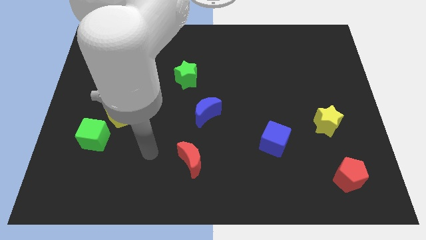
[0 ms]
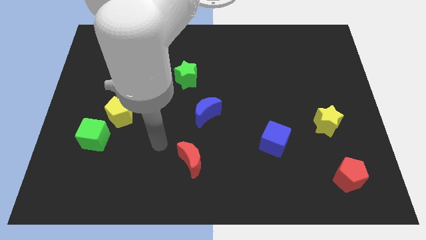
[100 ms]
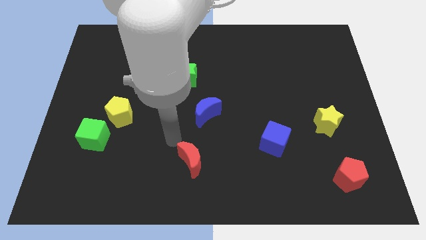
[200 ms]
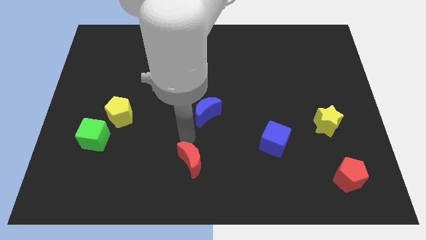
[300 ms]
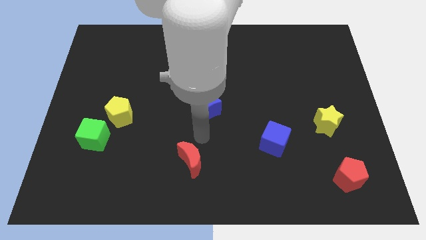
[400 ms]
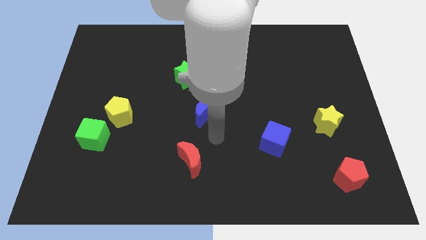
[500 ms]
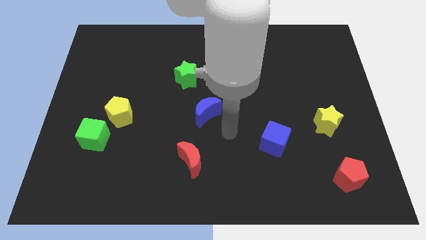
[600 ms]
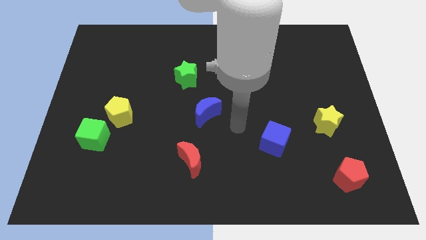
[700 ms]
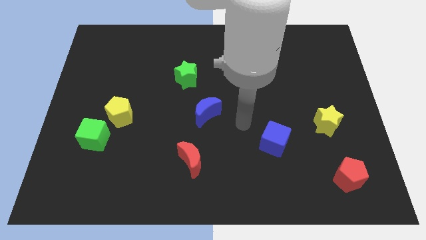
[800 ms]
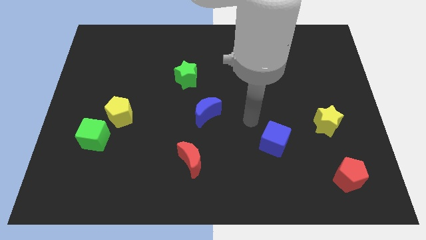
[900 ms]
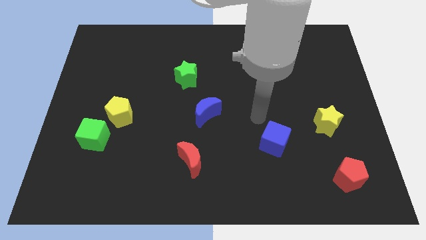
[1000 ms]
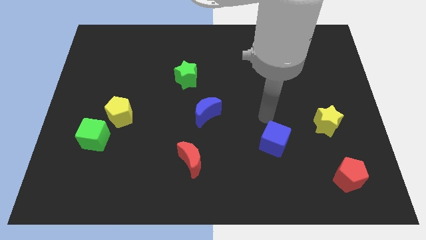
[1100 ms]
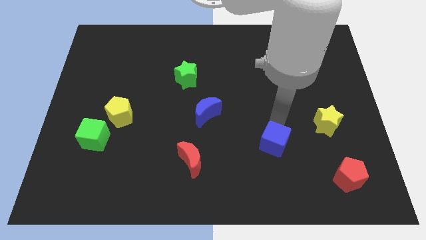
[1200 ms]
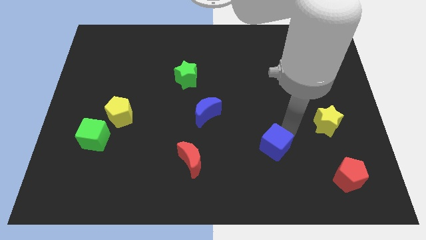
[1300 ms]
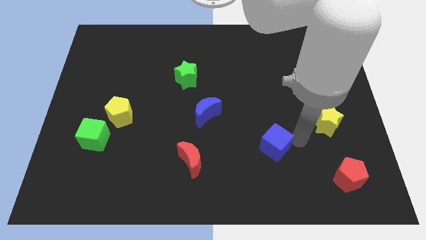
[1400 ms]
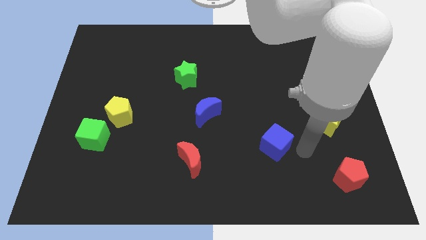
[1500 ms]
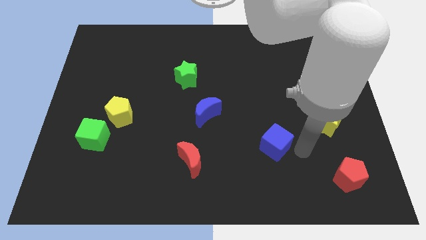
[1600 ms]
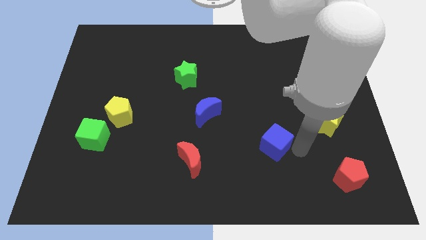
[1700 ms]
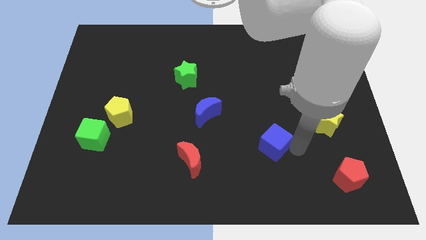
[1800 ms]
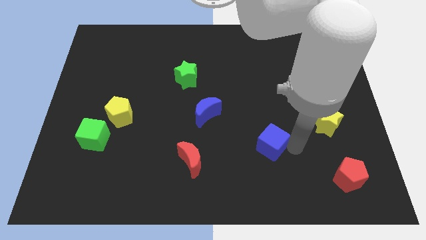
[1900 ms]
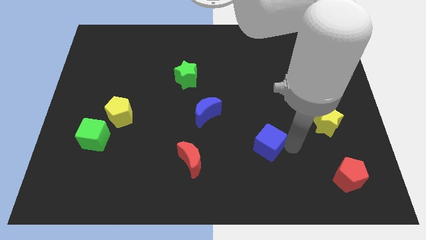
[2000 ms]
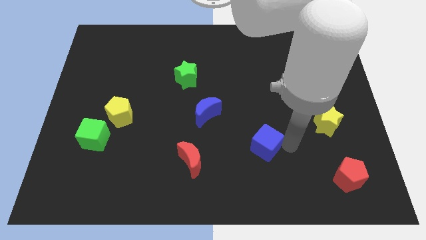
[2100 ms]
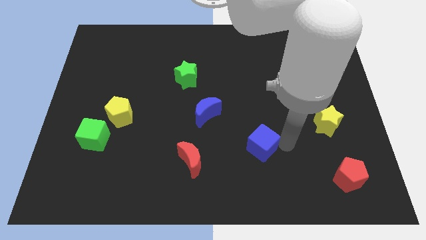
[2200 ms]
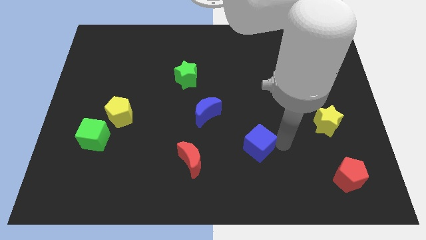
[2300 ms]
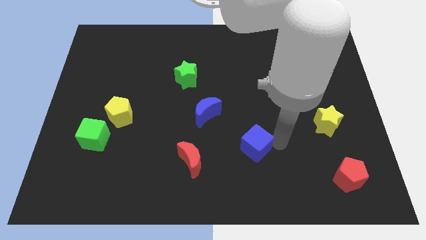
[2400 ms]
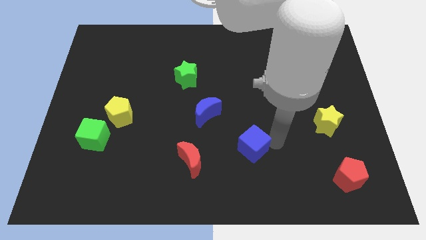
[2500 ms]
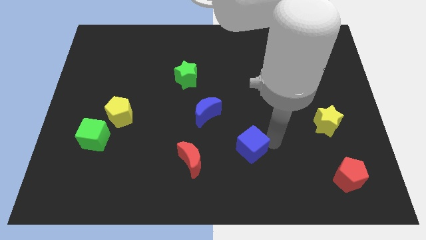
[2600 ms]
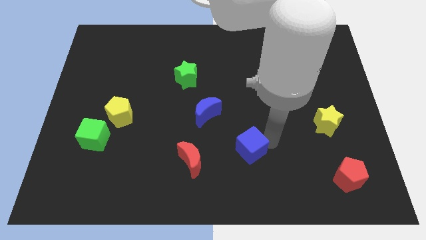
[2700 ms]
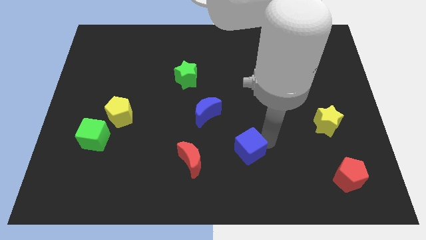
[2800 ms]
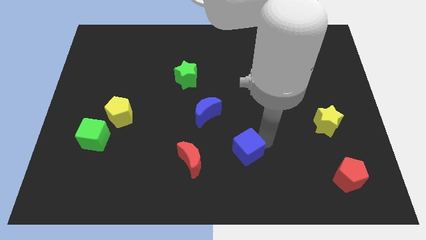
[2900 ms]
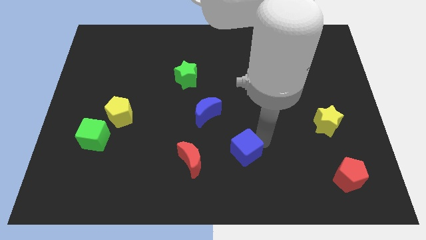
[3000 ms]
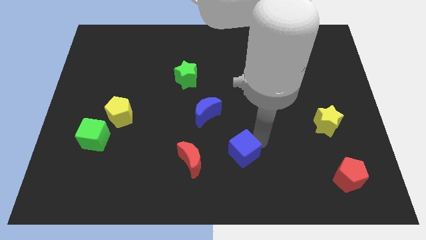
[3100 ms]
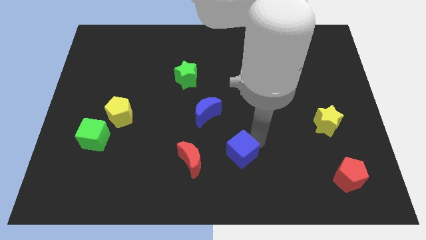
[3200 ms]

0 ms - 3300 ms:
slide the blue cube left a little bit

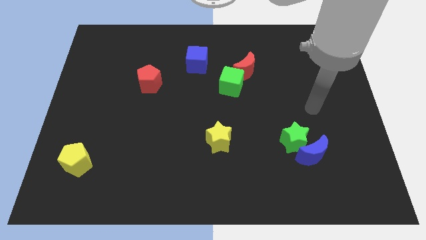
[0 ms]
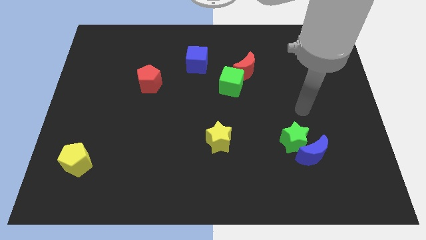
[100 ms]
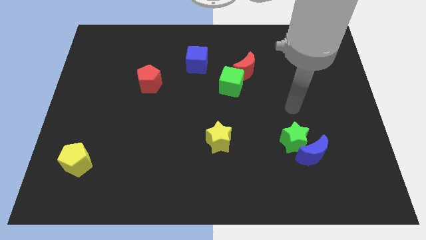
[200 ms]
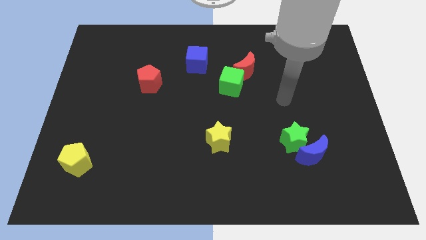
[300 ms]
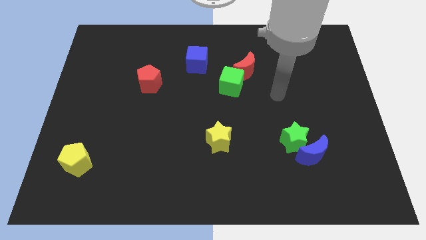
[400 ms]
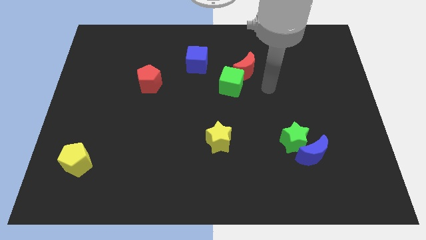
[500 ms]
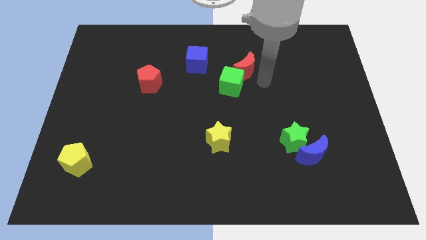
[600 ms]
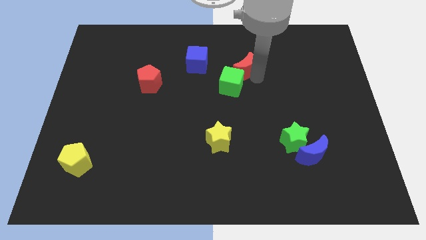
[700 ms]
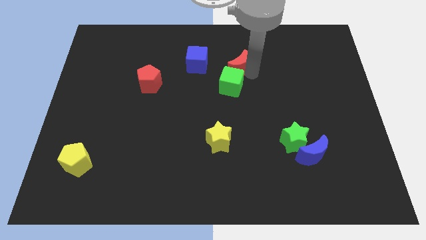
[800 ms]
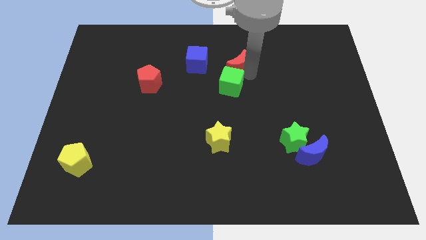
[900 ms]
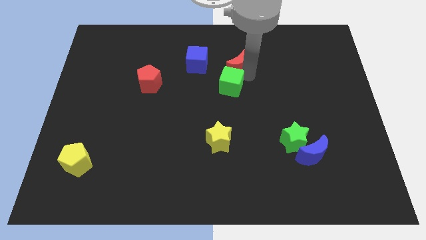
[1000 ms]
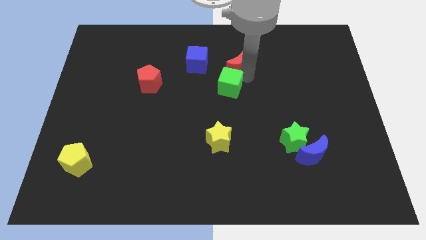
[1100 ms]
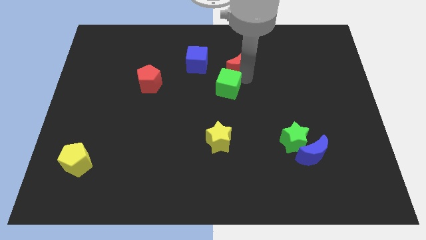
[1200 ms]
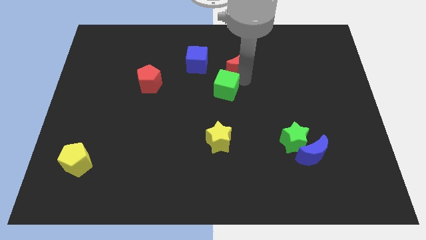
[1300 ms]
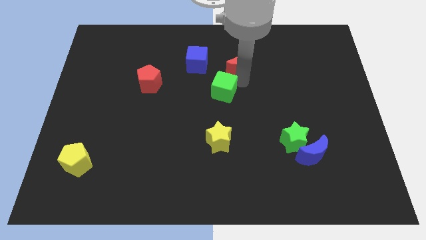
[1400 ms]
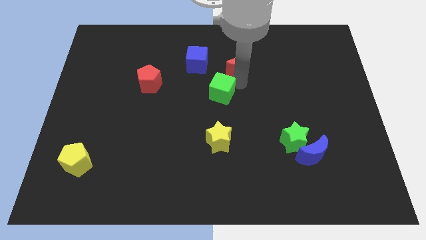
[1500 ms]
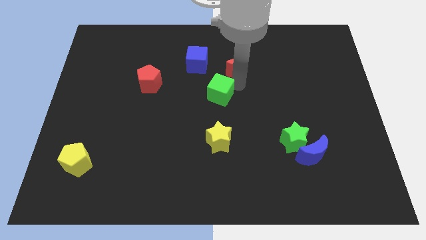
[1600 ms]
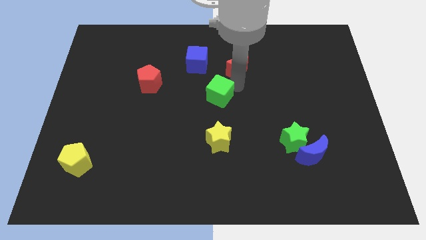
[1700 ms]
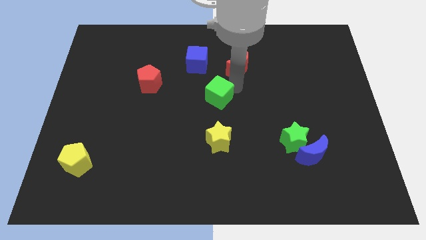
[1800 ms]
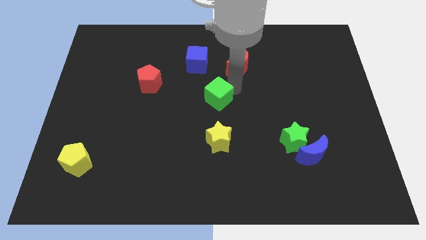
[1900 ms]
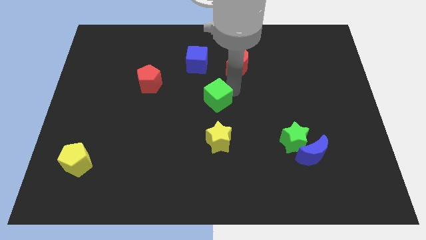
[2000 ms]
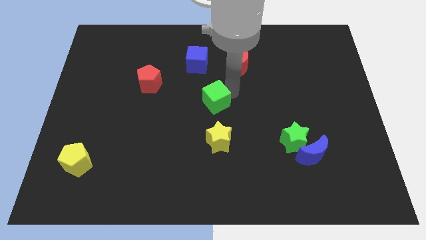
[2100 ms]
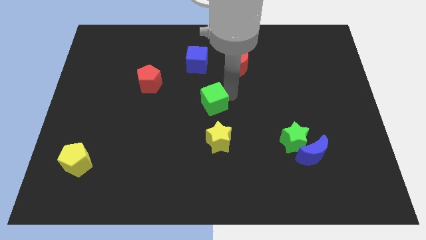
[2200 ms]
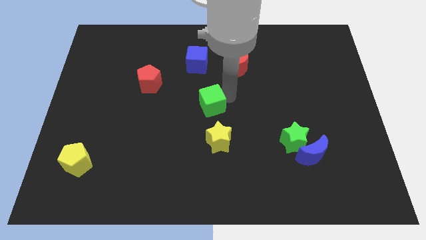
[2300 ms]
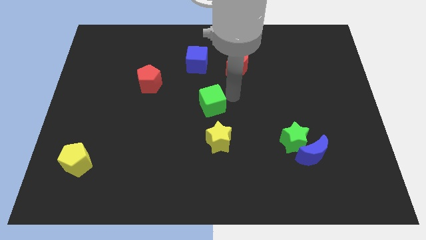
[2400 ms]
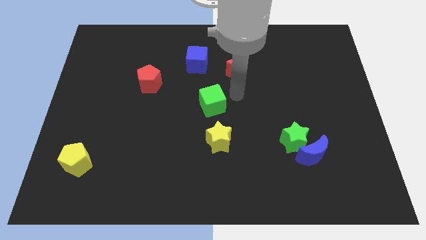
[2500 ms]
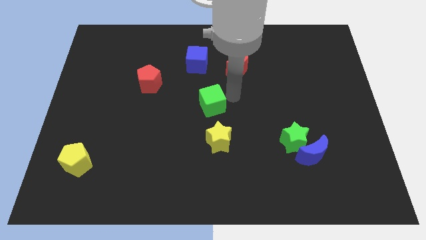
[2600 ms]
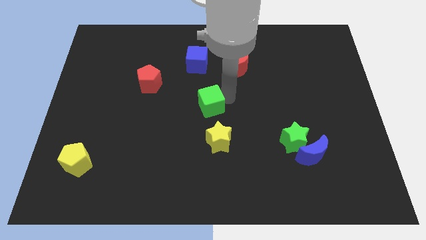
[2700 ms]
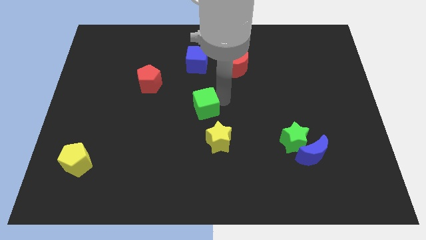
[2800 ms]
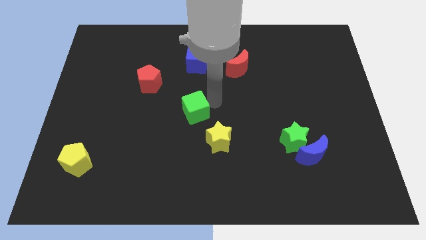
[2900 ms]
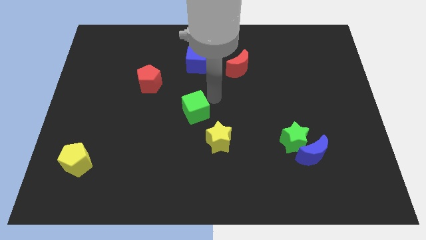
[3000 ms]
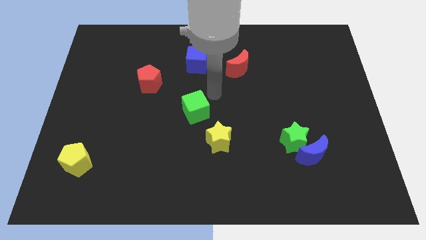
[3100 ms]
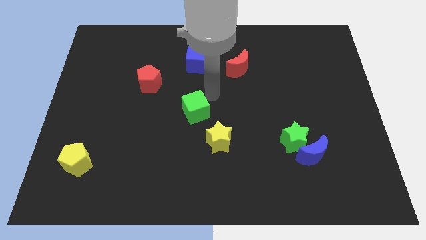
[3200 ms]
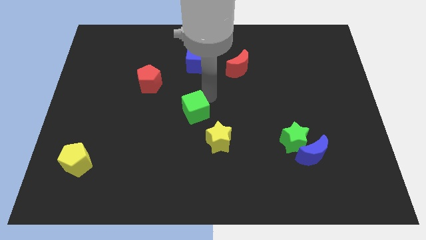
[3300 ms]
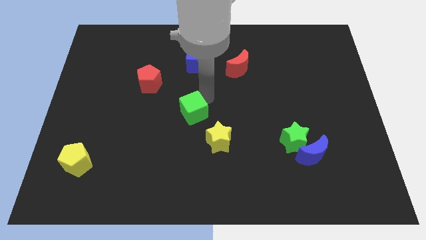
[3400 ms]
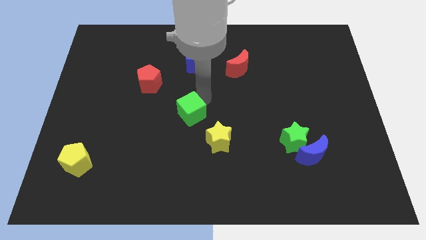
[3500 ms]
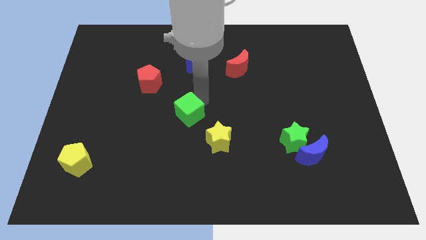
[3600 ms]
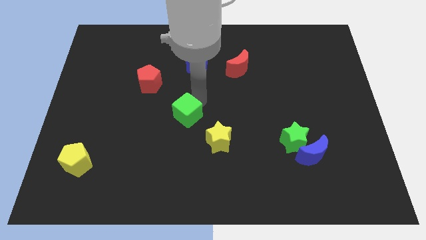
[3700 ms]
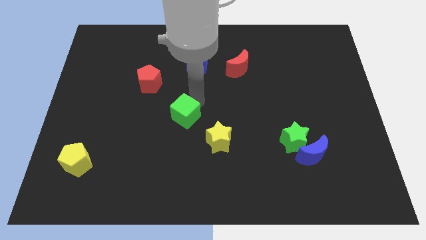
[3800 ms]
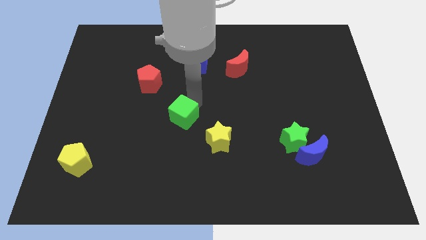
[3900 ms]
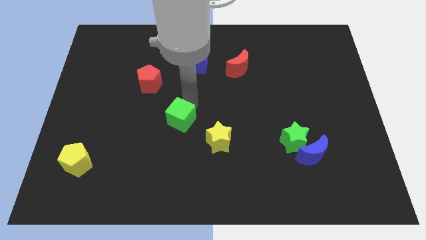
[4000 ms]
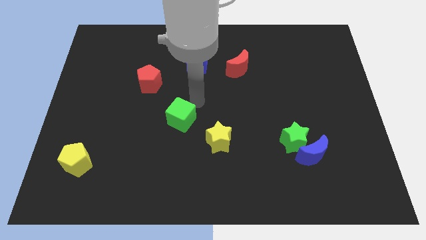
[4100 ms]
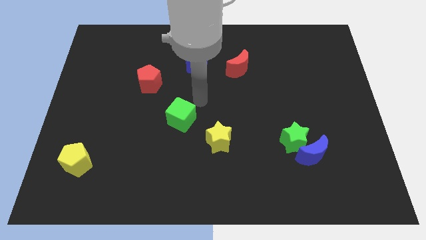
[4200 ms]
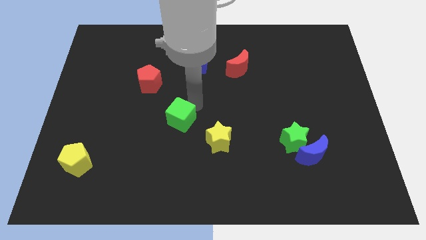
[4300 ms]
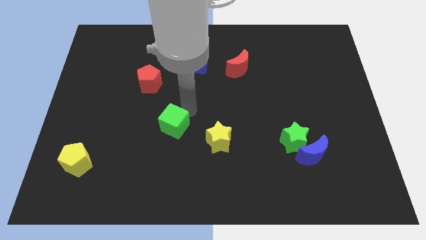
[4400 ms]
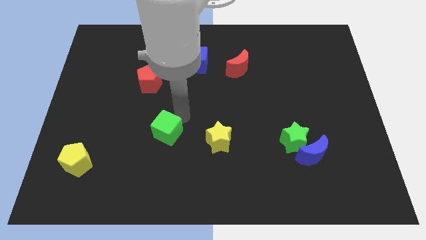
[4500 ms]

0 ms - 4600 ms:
move the green cube diagonally downwards and left

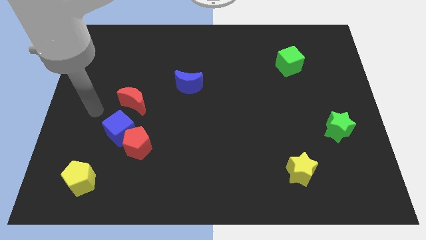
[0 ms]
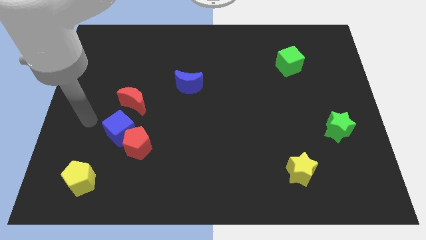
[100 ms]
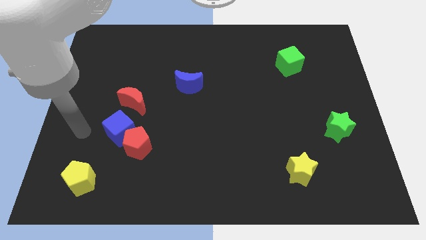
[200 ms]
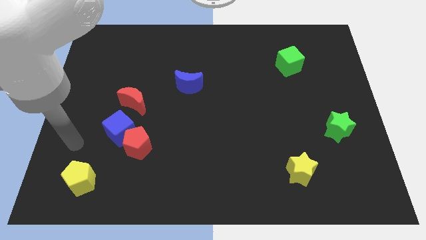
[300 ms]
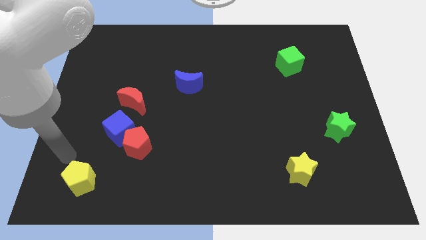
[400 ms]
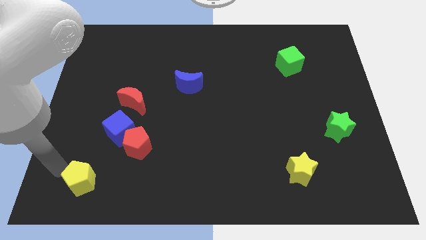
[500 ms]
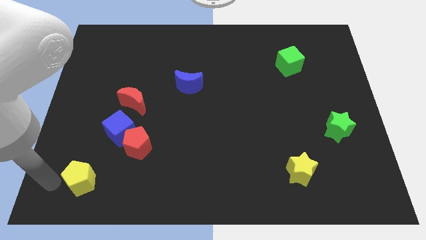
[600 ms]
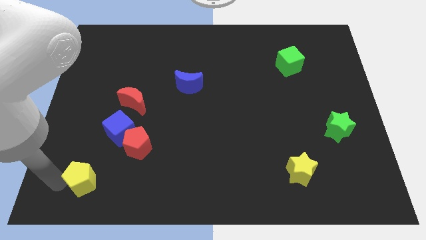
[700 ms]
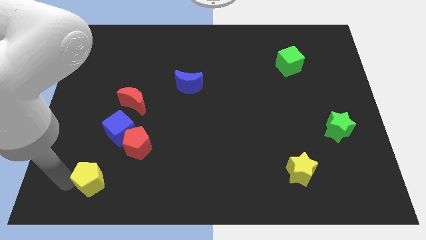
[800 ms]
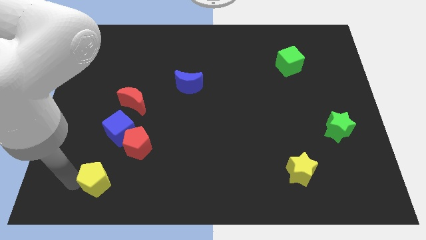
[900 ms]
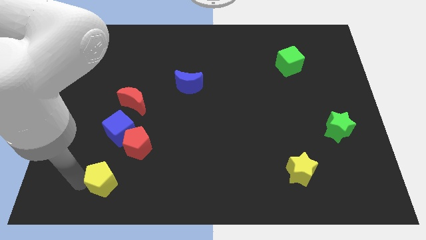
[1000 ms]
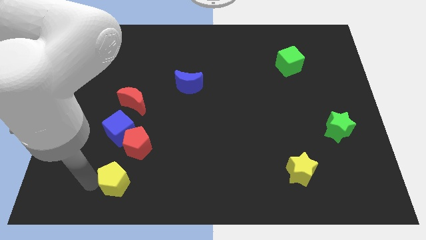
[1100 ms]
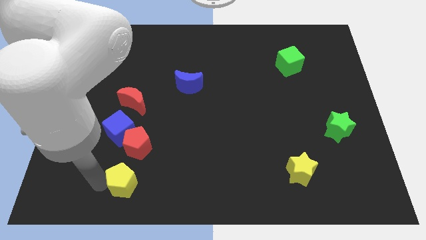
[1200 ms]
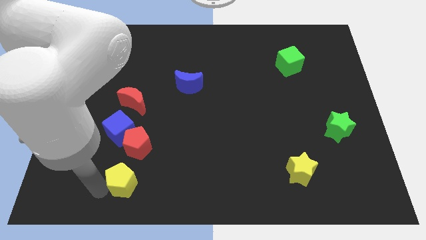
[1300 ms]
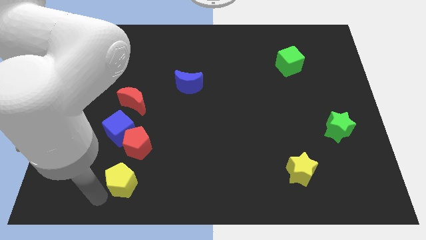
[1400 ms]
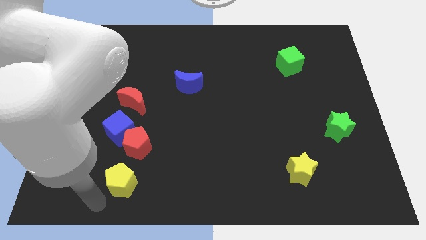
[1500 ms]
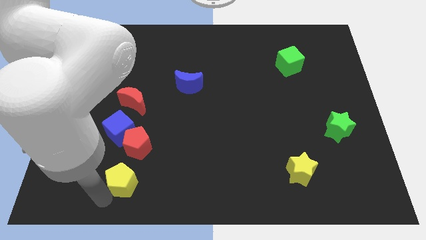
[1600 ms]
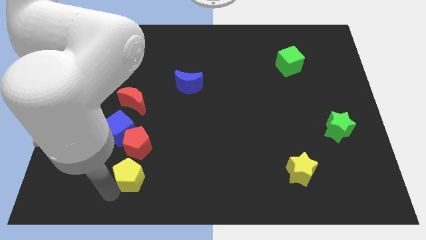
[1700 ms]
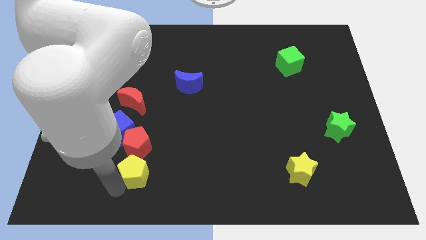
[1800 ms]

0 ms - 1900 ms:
slightly push the yellow pentagon up and to the right
